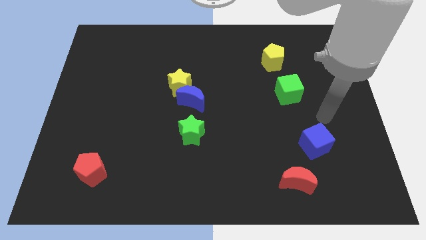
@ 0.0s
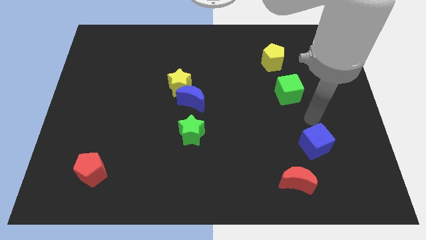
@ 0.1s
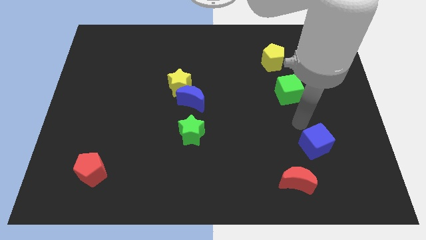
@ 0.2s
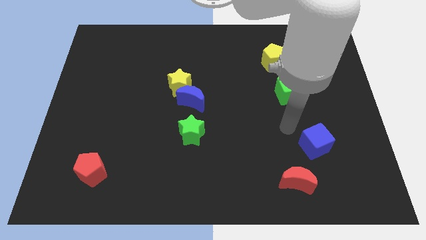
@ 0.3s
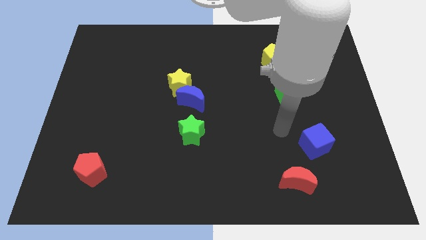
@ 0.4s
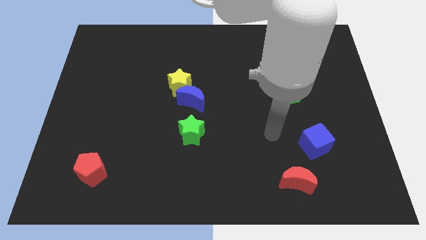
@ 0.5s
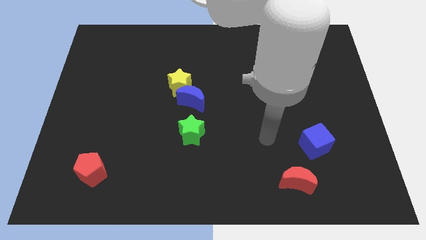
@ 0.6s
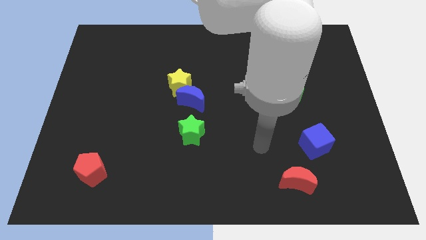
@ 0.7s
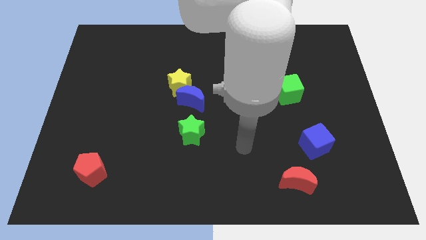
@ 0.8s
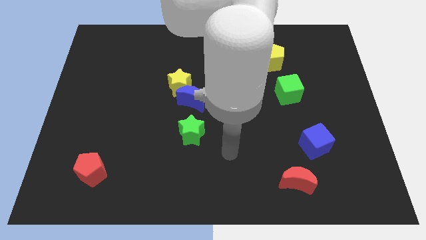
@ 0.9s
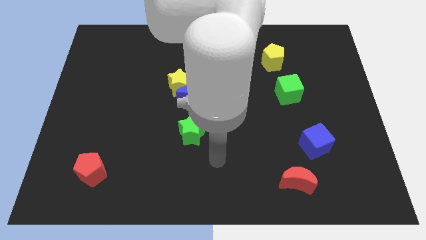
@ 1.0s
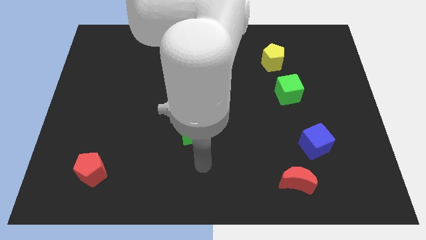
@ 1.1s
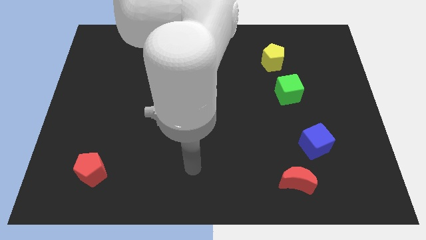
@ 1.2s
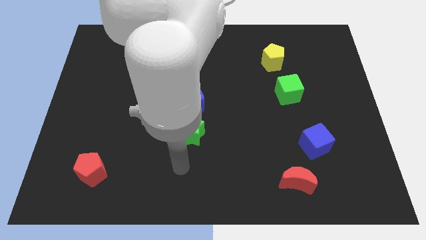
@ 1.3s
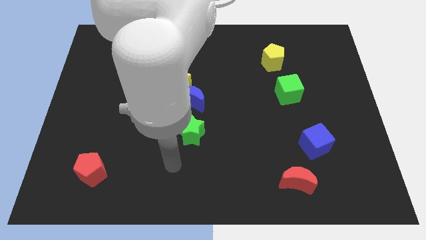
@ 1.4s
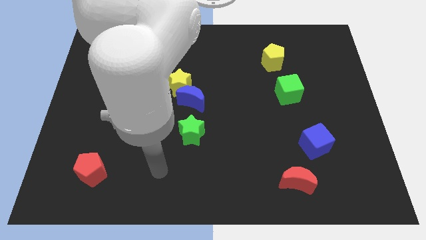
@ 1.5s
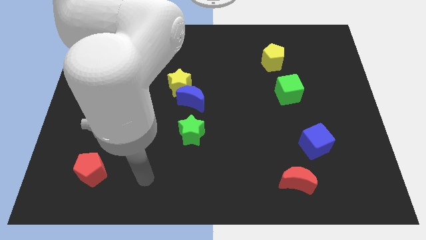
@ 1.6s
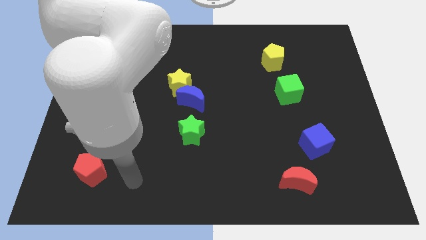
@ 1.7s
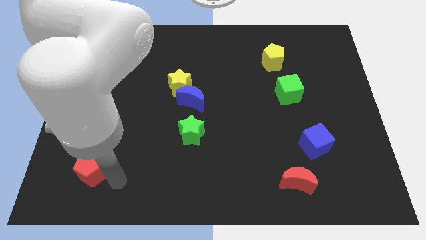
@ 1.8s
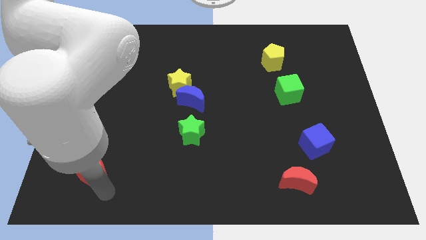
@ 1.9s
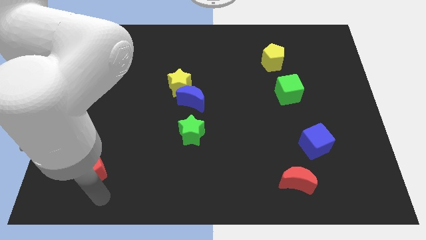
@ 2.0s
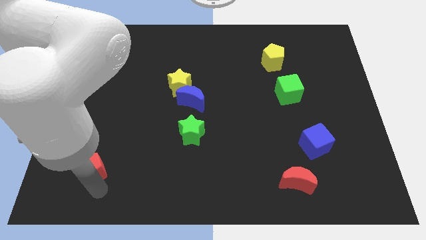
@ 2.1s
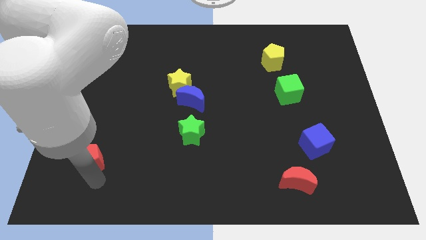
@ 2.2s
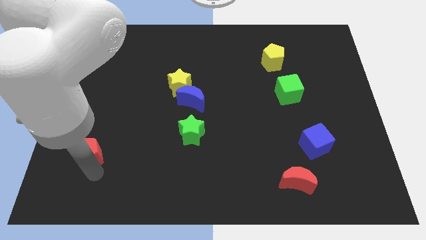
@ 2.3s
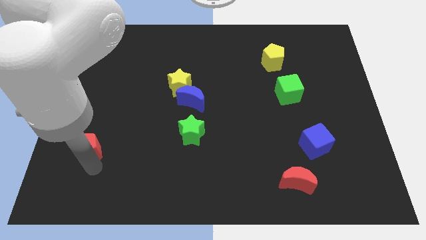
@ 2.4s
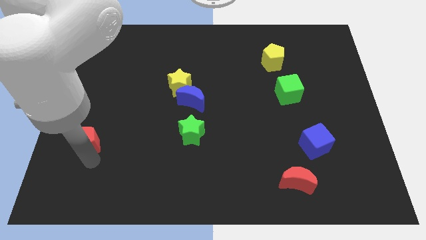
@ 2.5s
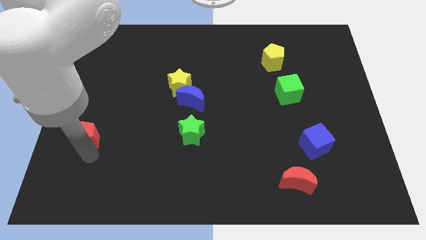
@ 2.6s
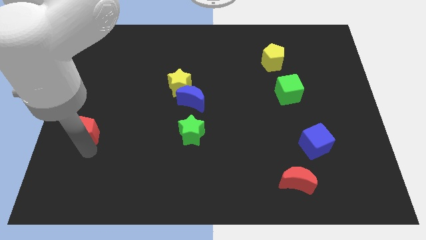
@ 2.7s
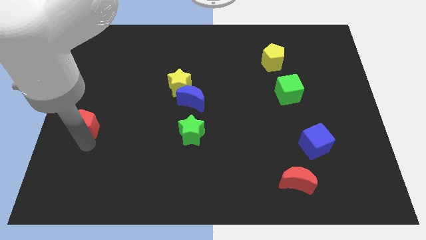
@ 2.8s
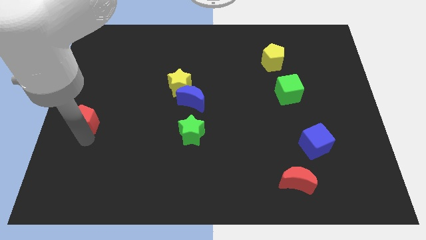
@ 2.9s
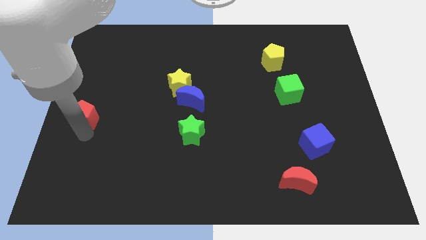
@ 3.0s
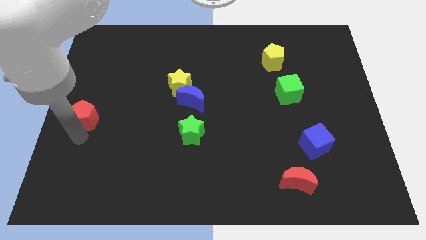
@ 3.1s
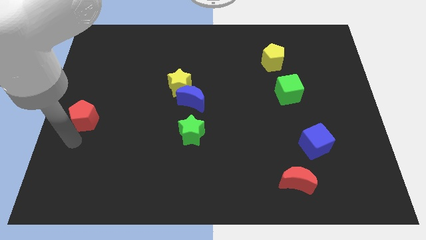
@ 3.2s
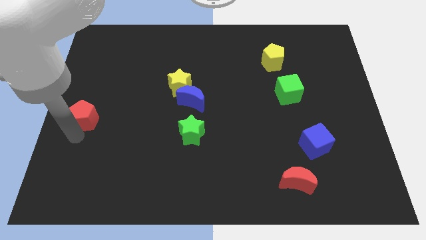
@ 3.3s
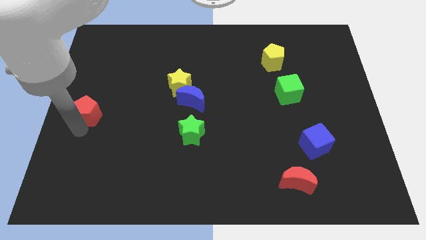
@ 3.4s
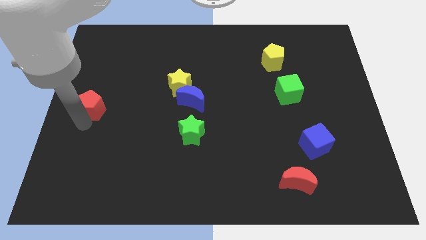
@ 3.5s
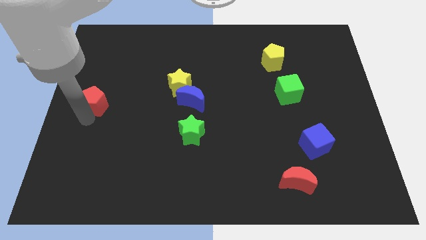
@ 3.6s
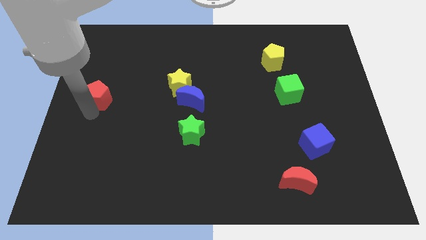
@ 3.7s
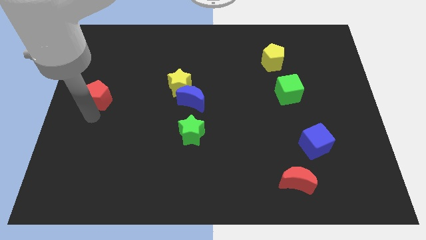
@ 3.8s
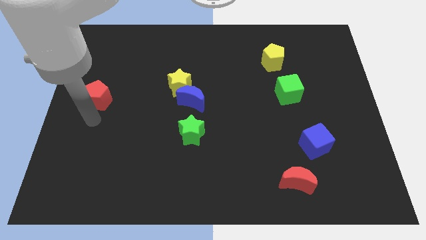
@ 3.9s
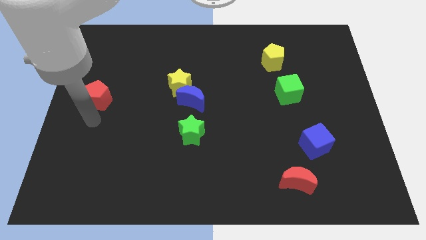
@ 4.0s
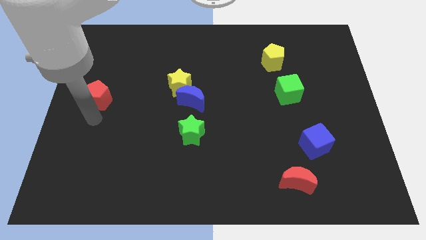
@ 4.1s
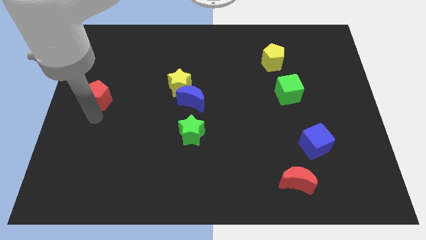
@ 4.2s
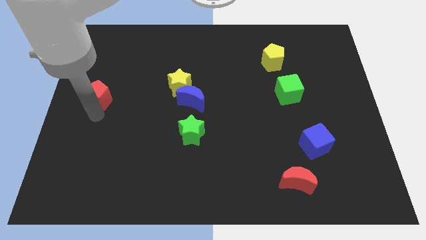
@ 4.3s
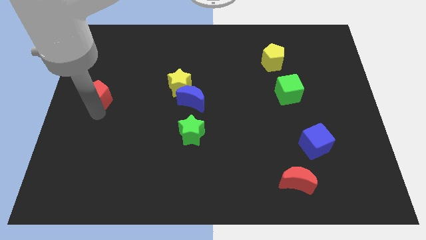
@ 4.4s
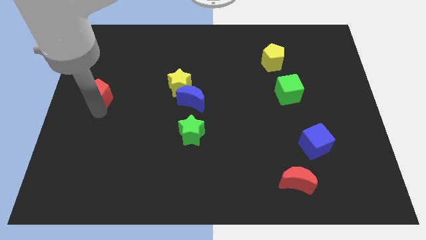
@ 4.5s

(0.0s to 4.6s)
move the red pentagon up

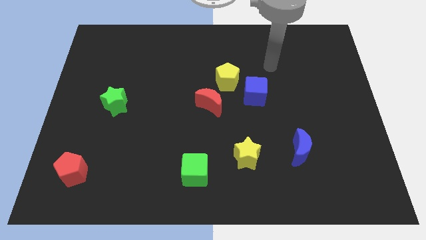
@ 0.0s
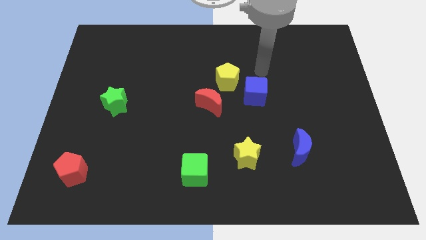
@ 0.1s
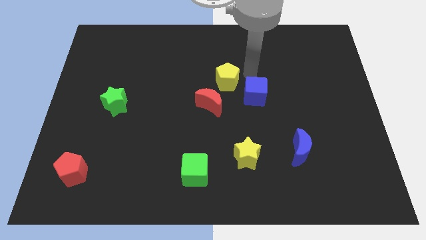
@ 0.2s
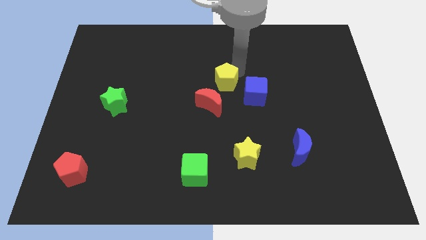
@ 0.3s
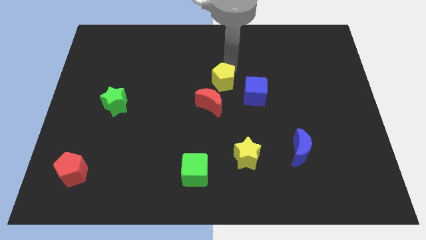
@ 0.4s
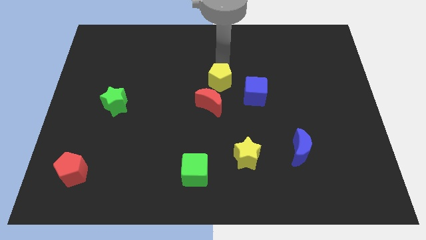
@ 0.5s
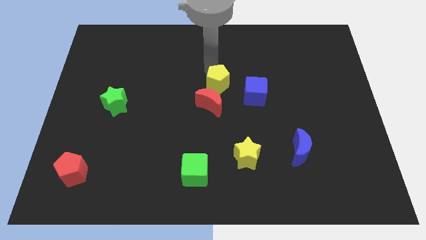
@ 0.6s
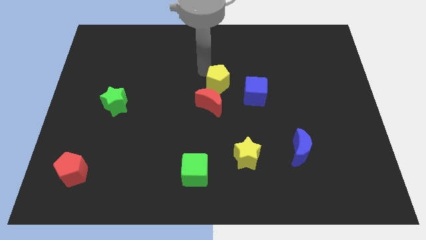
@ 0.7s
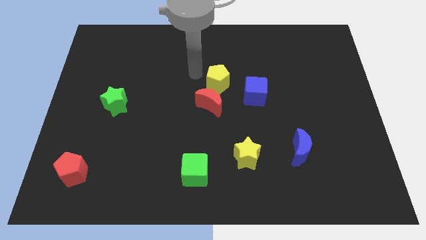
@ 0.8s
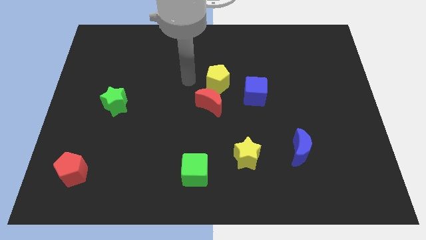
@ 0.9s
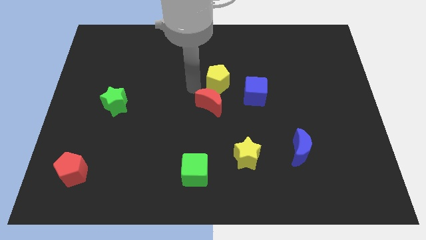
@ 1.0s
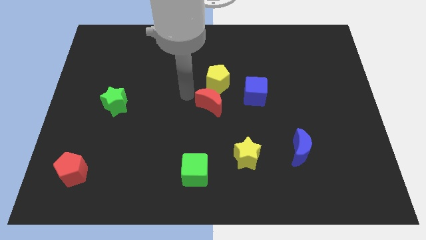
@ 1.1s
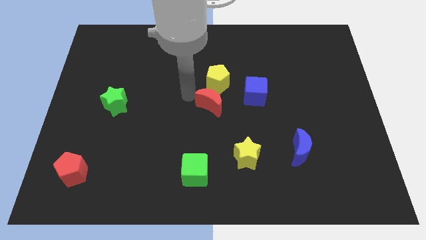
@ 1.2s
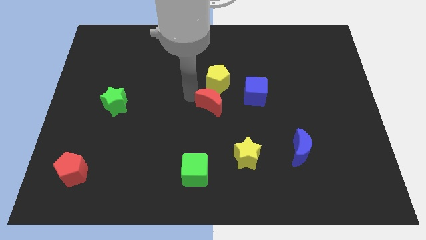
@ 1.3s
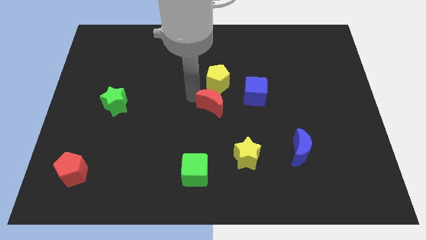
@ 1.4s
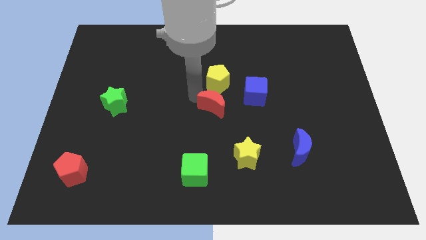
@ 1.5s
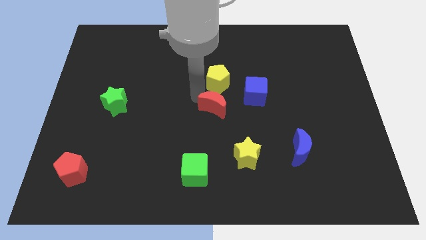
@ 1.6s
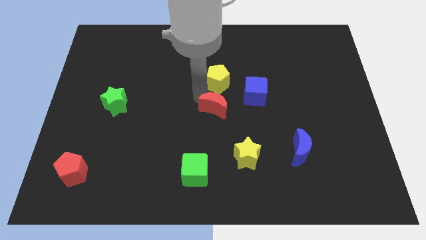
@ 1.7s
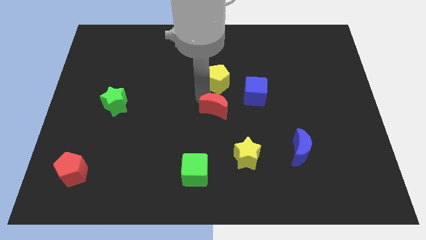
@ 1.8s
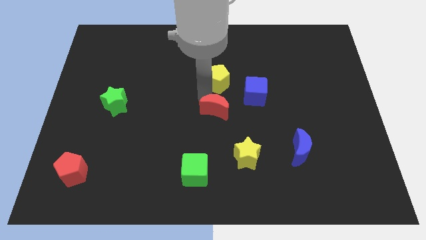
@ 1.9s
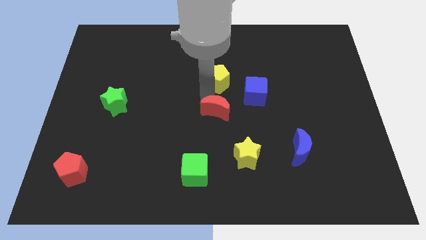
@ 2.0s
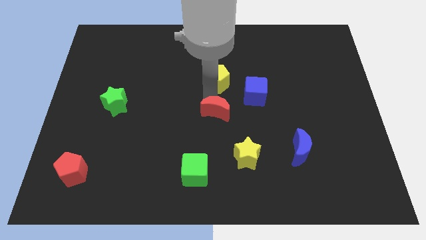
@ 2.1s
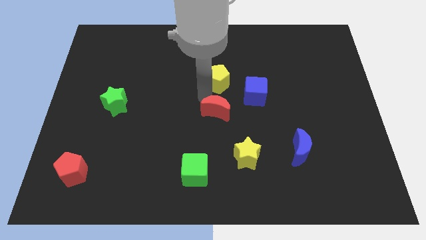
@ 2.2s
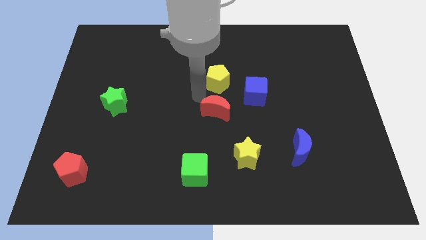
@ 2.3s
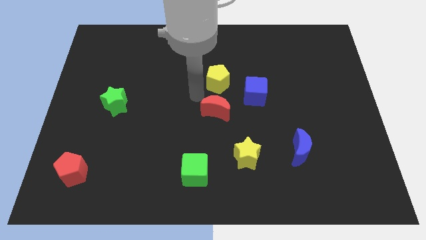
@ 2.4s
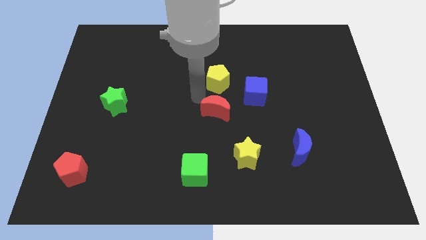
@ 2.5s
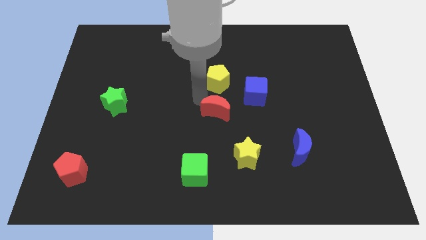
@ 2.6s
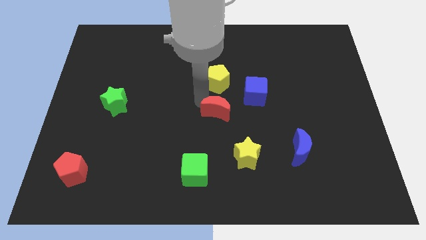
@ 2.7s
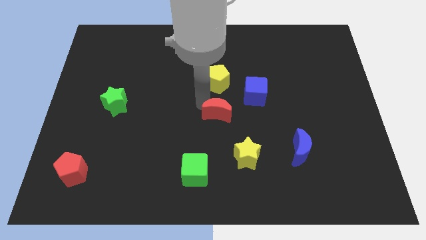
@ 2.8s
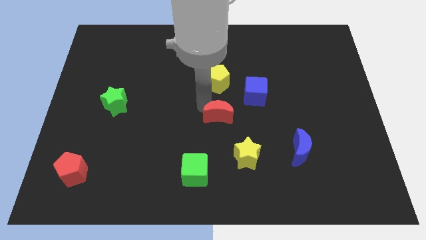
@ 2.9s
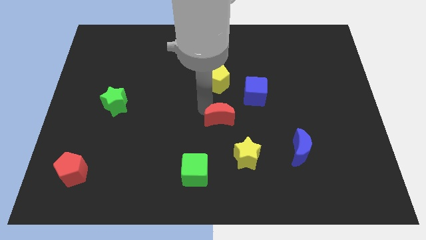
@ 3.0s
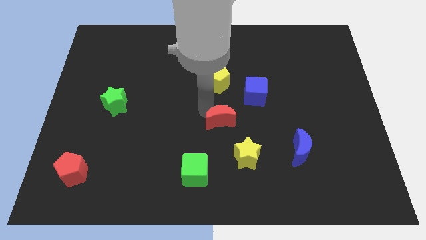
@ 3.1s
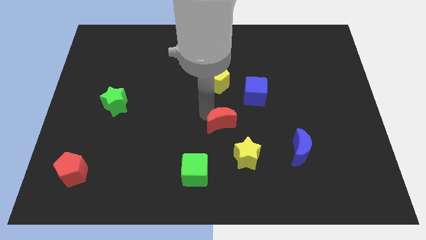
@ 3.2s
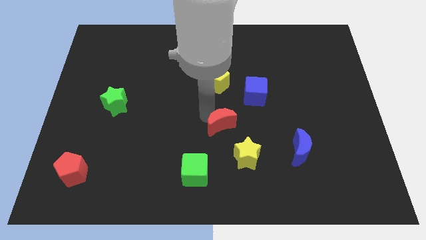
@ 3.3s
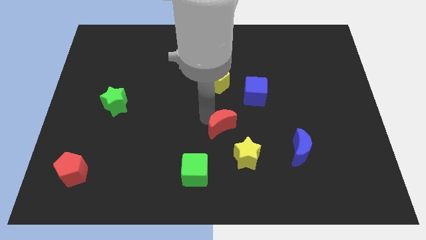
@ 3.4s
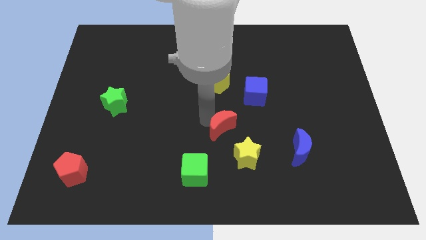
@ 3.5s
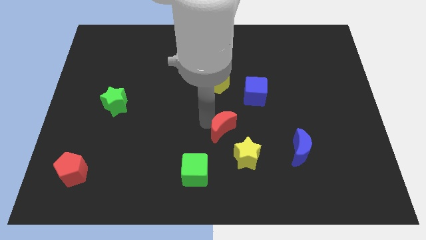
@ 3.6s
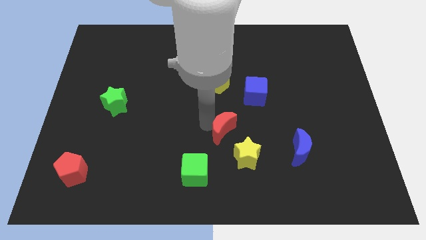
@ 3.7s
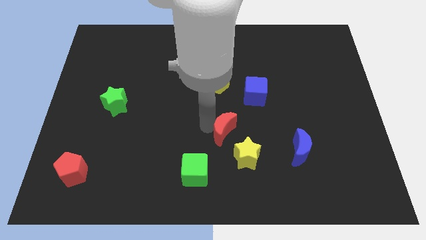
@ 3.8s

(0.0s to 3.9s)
slightly move the red moon down and to the right diagonally
